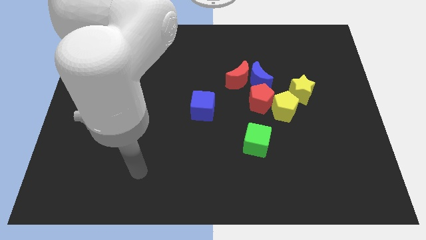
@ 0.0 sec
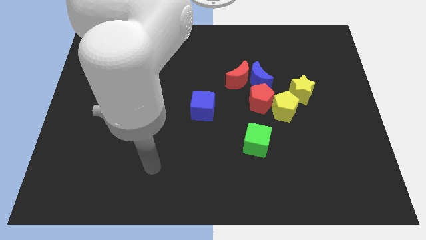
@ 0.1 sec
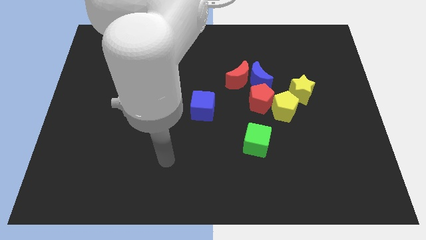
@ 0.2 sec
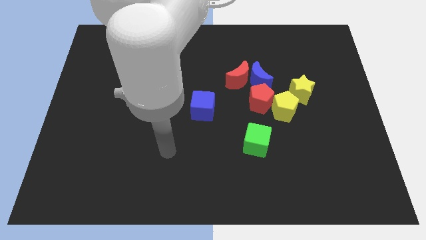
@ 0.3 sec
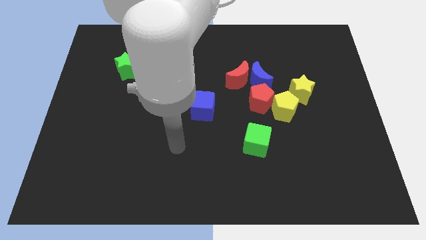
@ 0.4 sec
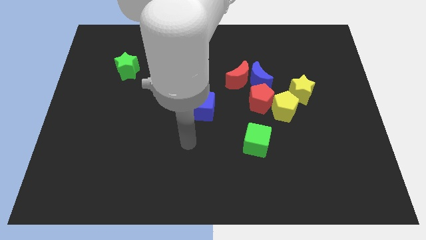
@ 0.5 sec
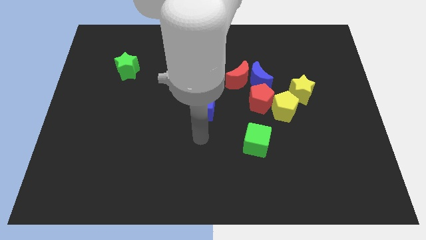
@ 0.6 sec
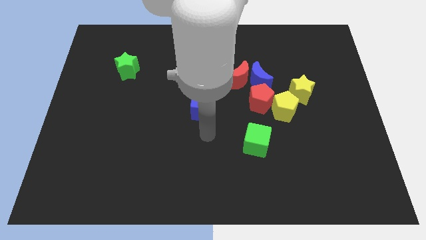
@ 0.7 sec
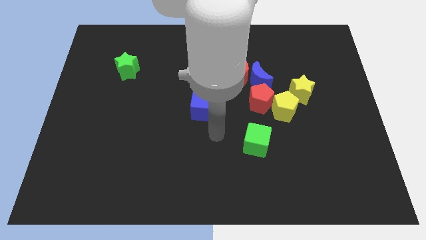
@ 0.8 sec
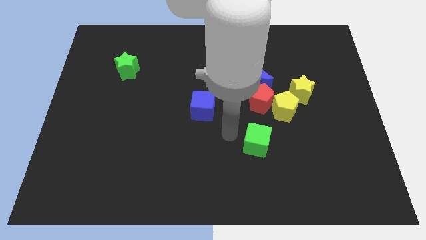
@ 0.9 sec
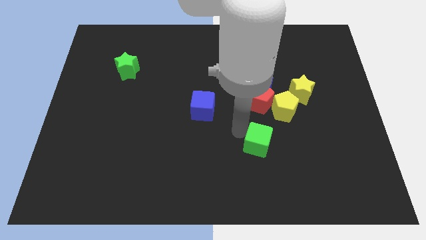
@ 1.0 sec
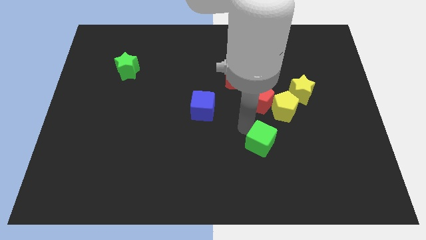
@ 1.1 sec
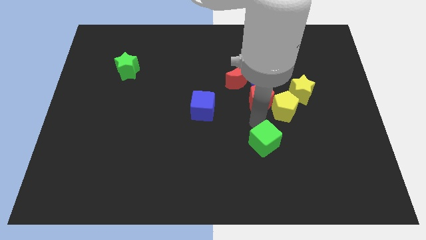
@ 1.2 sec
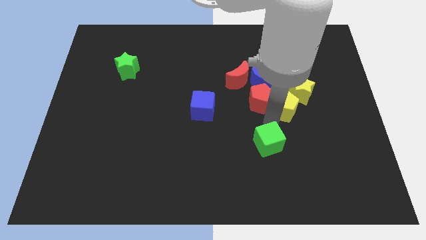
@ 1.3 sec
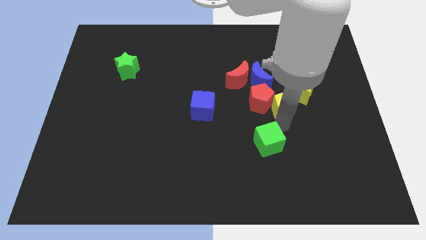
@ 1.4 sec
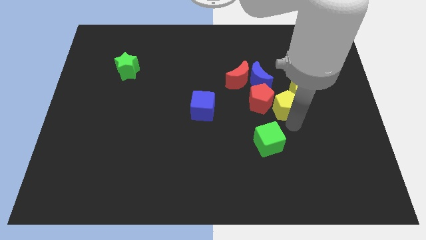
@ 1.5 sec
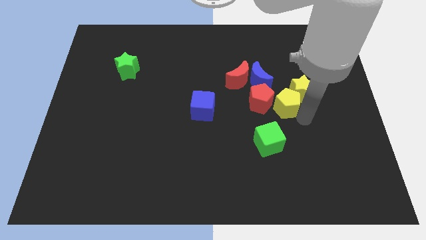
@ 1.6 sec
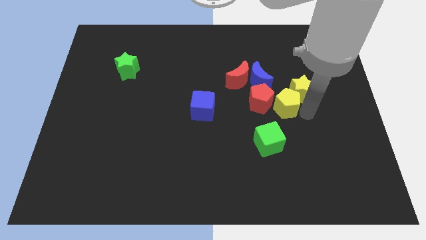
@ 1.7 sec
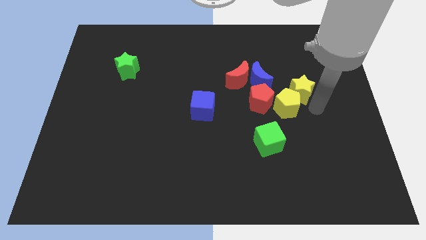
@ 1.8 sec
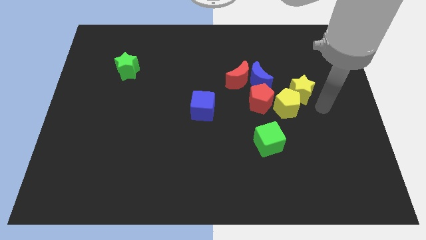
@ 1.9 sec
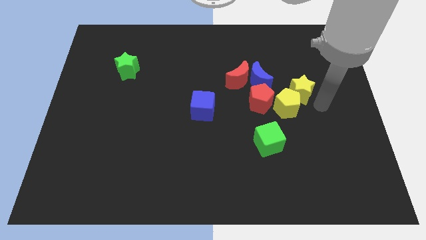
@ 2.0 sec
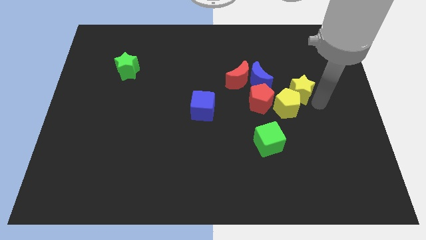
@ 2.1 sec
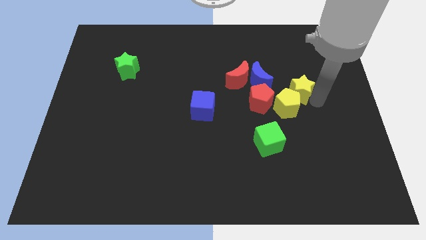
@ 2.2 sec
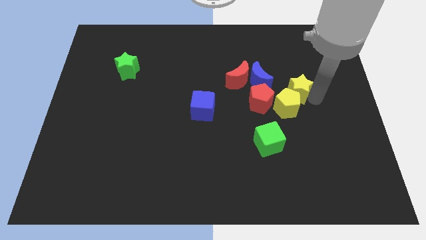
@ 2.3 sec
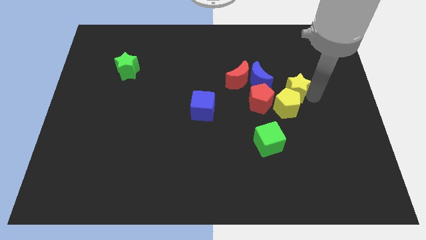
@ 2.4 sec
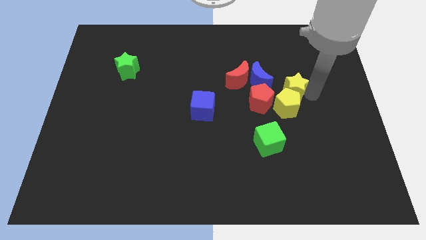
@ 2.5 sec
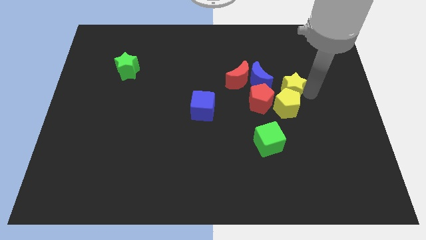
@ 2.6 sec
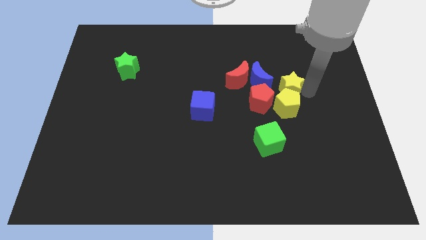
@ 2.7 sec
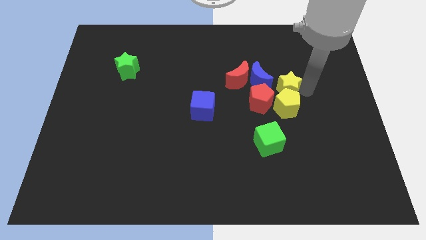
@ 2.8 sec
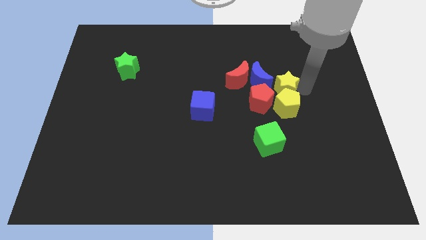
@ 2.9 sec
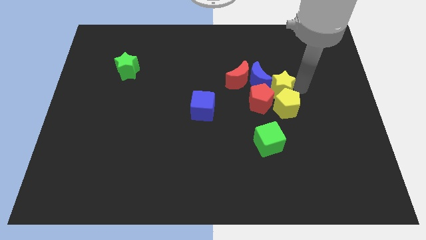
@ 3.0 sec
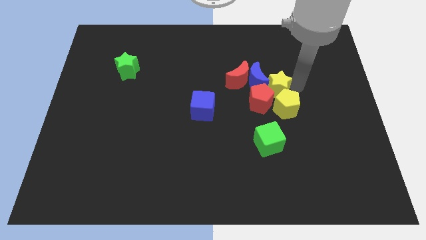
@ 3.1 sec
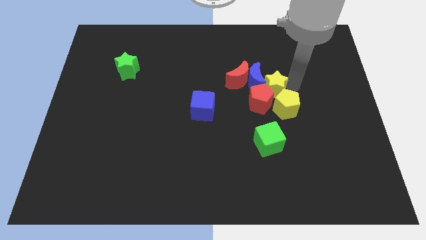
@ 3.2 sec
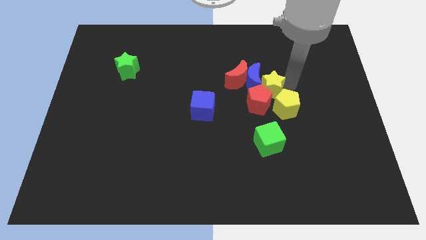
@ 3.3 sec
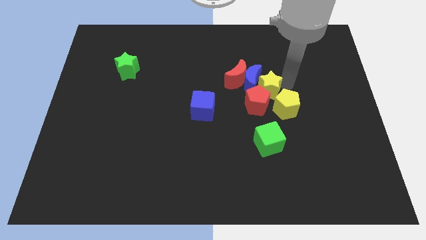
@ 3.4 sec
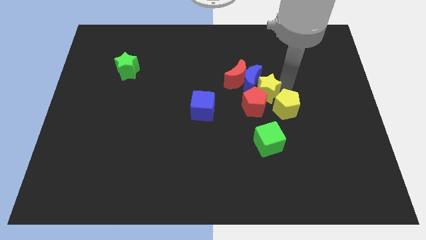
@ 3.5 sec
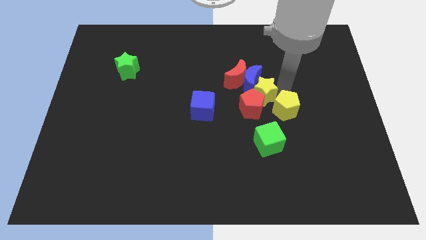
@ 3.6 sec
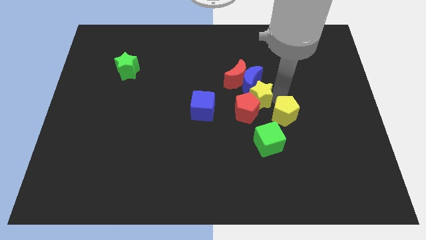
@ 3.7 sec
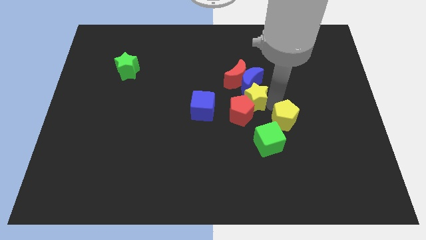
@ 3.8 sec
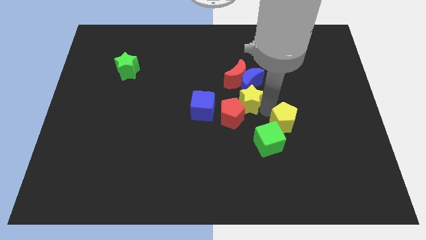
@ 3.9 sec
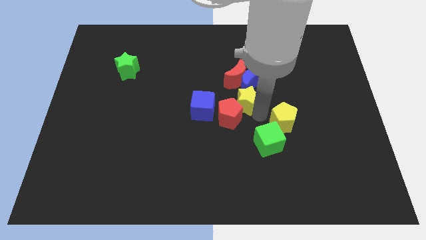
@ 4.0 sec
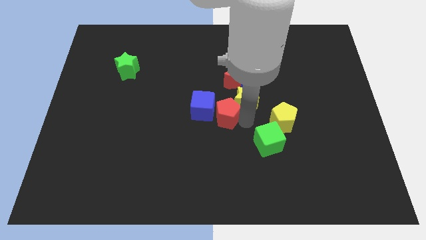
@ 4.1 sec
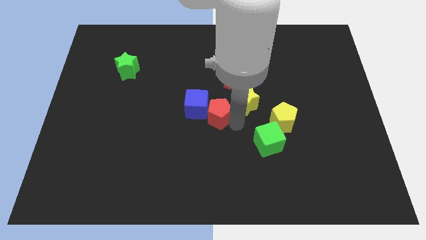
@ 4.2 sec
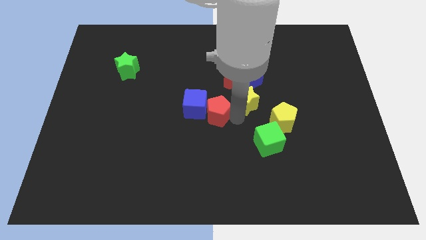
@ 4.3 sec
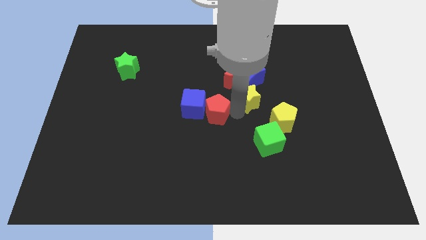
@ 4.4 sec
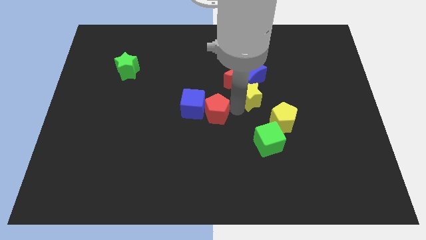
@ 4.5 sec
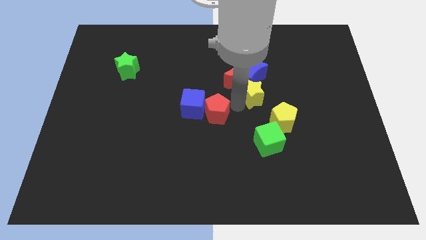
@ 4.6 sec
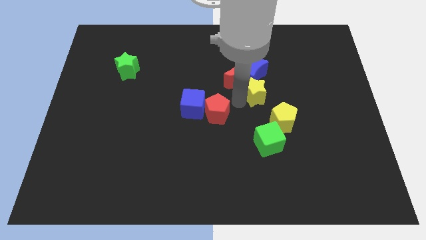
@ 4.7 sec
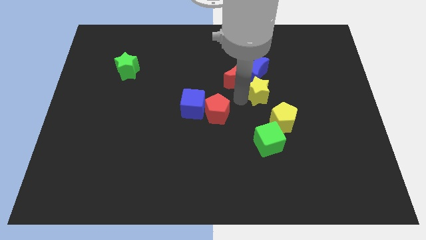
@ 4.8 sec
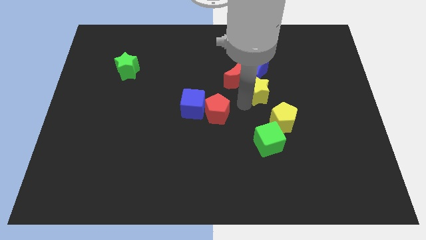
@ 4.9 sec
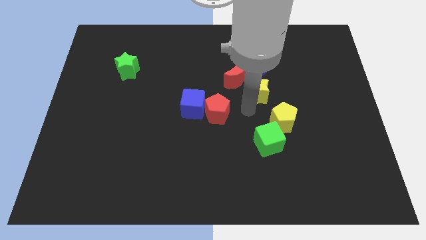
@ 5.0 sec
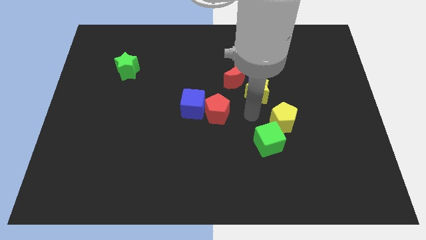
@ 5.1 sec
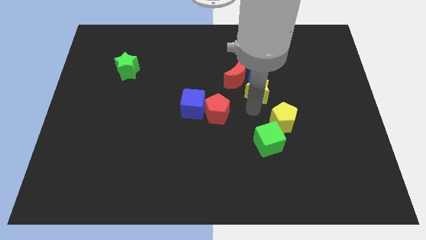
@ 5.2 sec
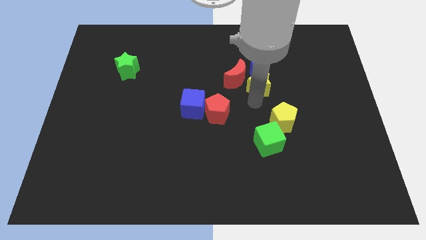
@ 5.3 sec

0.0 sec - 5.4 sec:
put the yellow star towards the red moon

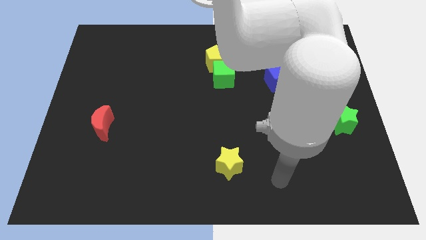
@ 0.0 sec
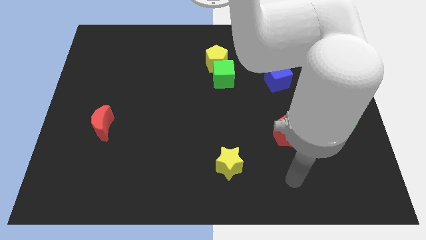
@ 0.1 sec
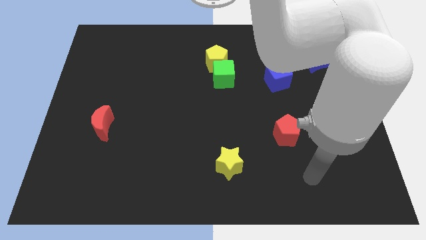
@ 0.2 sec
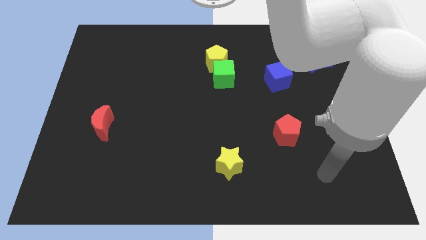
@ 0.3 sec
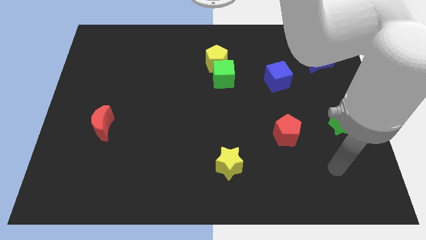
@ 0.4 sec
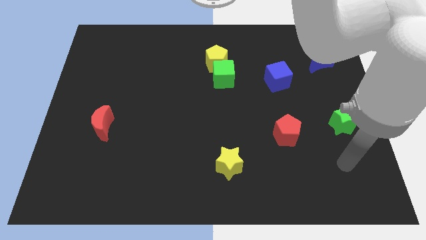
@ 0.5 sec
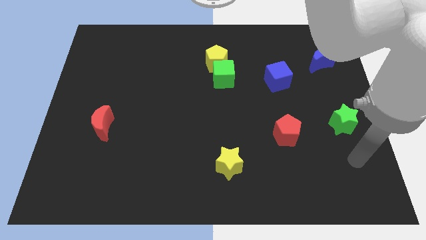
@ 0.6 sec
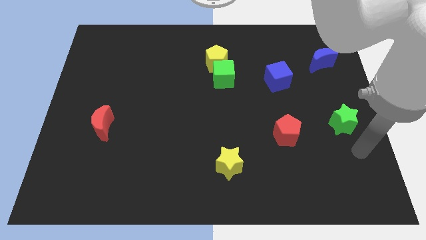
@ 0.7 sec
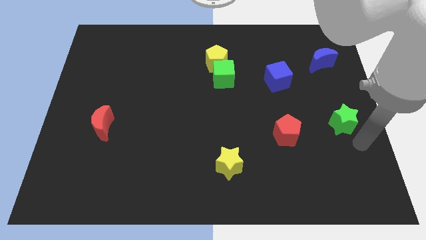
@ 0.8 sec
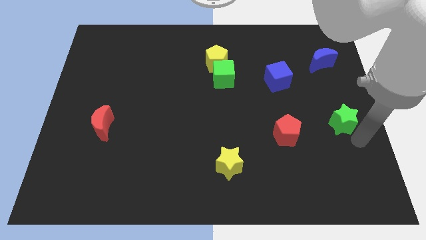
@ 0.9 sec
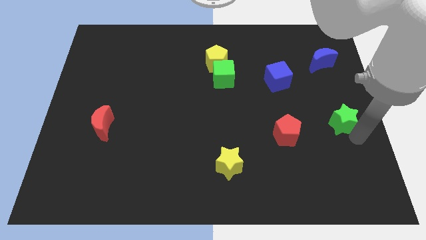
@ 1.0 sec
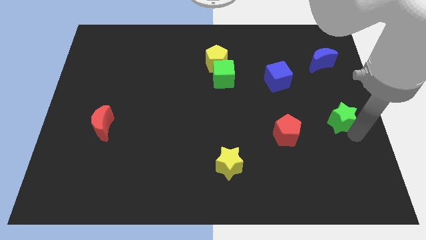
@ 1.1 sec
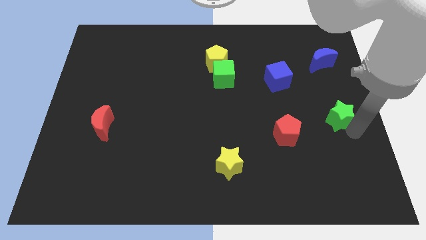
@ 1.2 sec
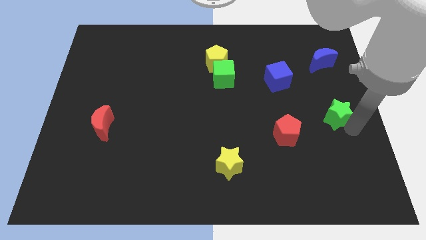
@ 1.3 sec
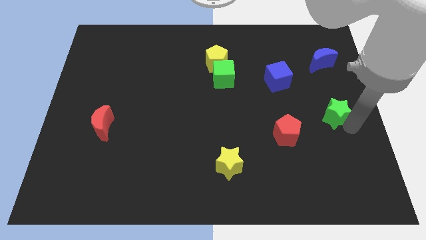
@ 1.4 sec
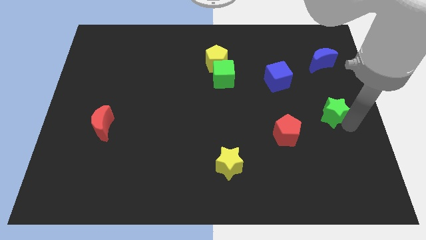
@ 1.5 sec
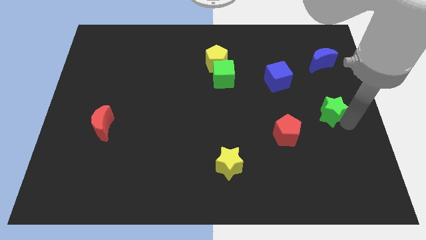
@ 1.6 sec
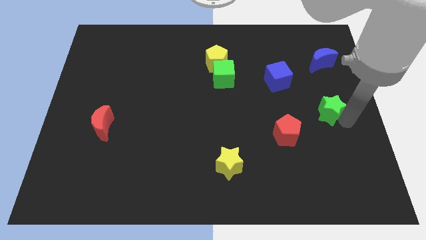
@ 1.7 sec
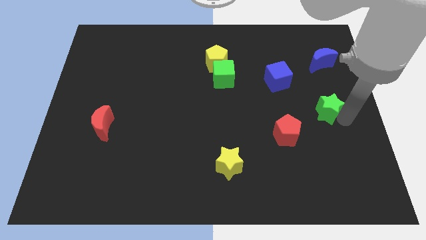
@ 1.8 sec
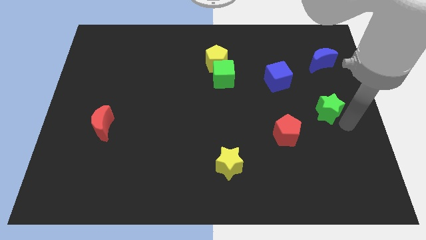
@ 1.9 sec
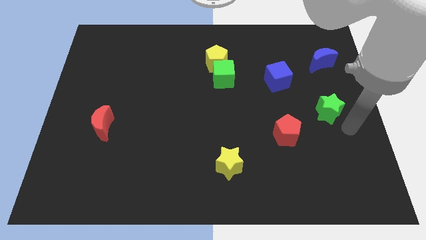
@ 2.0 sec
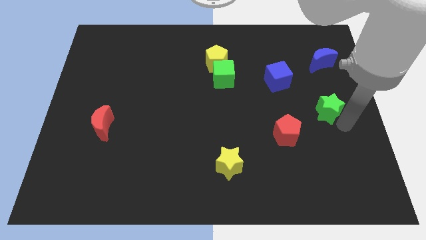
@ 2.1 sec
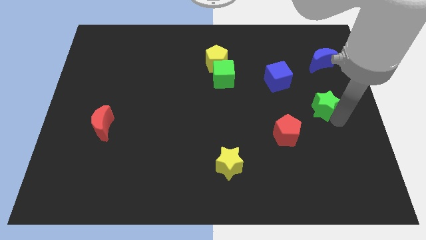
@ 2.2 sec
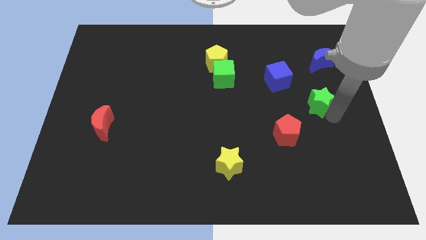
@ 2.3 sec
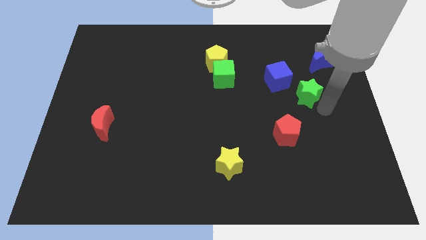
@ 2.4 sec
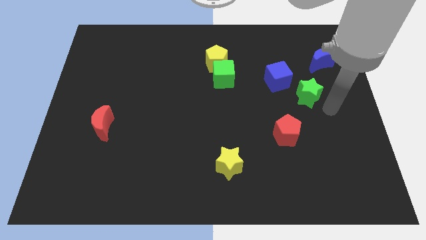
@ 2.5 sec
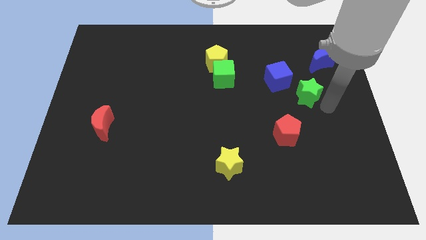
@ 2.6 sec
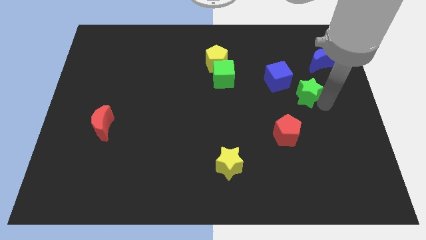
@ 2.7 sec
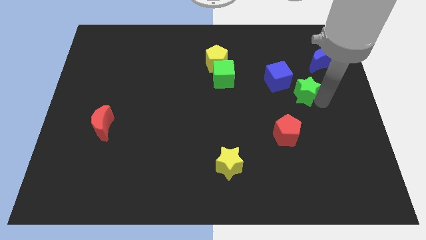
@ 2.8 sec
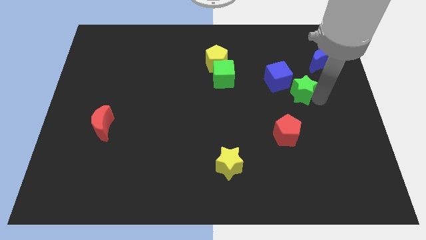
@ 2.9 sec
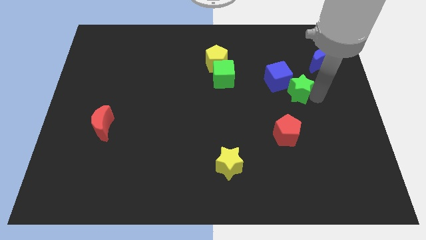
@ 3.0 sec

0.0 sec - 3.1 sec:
put the green star towards the blue cube
